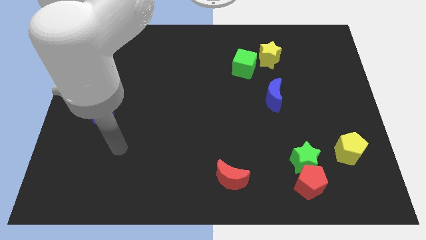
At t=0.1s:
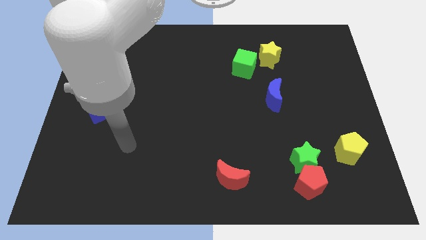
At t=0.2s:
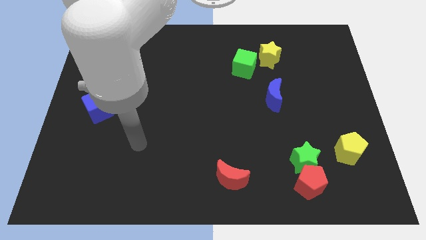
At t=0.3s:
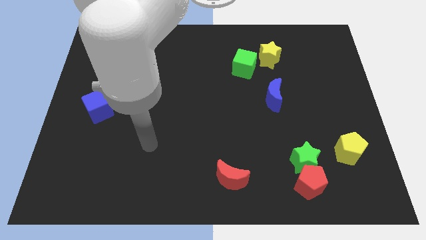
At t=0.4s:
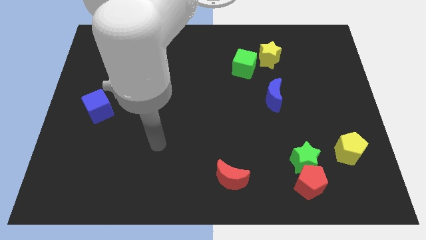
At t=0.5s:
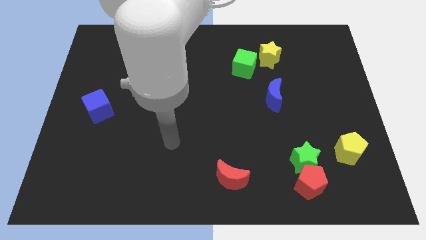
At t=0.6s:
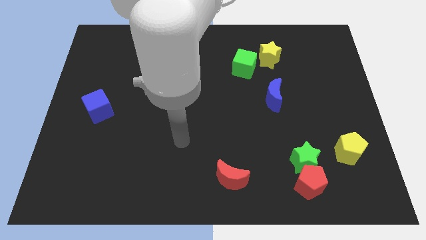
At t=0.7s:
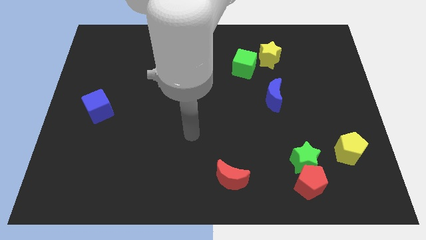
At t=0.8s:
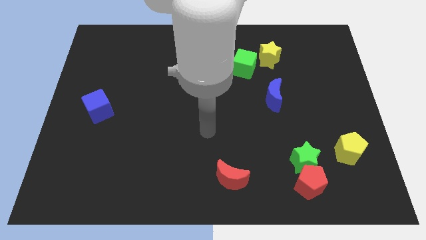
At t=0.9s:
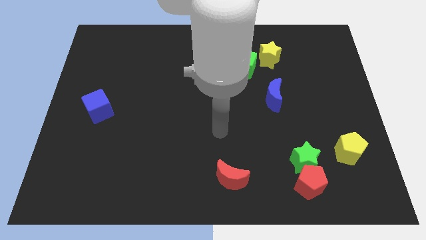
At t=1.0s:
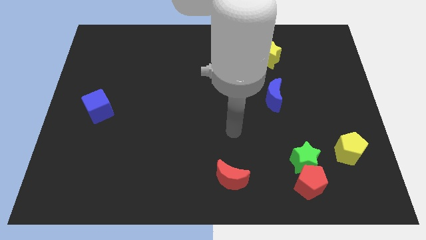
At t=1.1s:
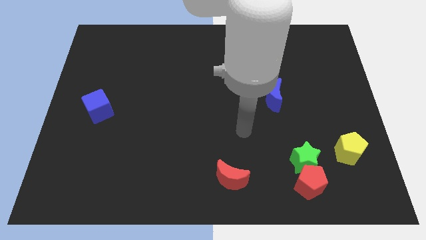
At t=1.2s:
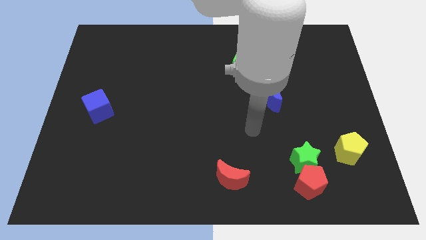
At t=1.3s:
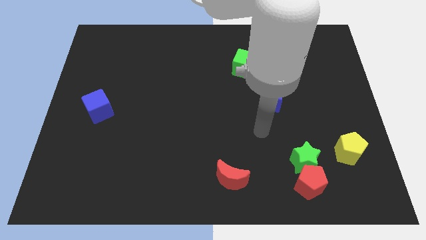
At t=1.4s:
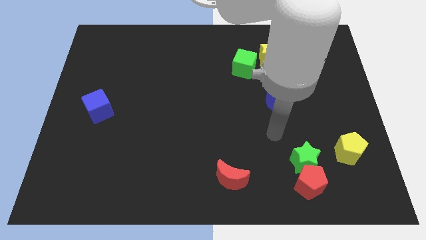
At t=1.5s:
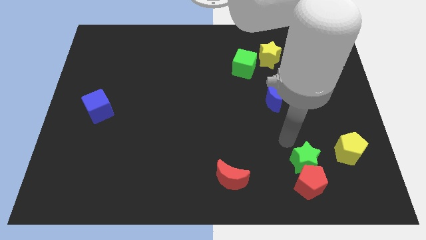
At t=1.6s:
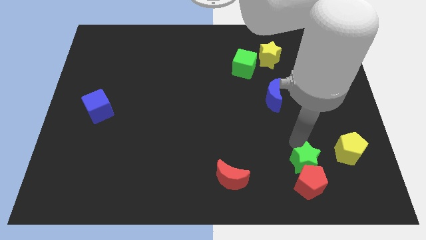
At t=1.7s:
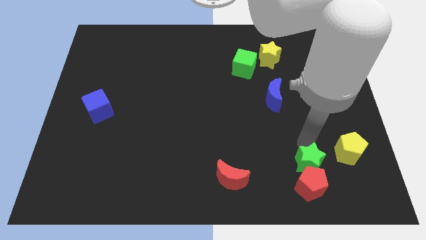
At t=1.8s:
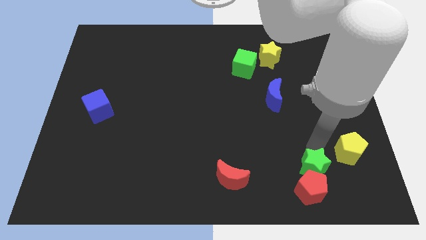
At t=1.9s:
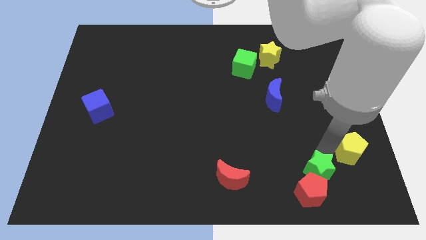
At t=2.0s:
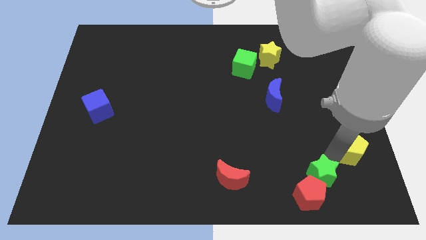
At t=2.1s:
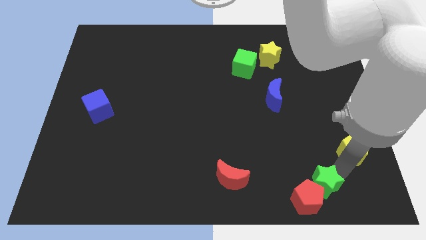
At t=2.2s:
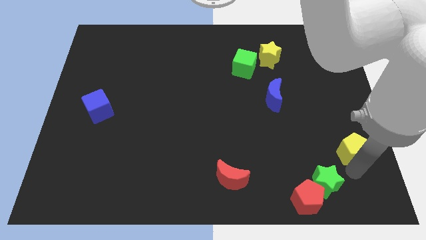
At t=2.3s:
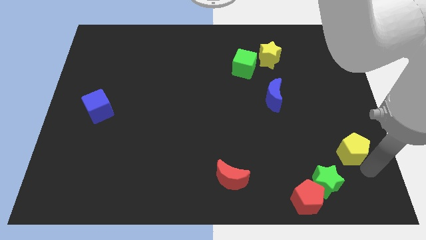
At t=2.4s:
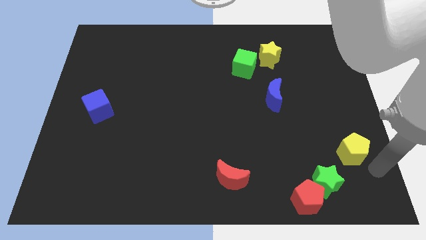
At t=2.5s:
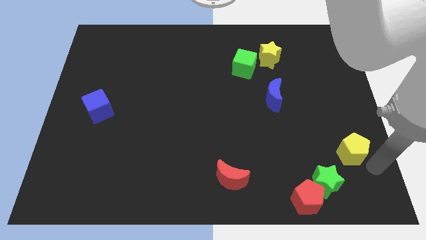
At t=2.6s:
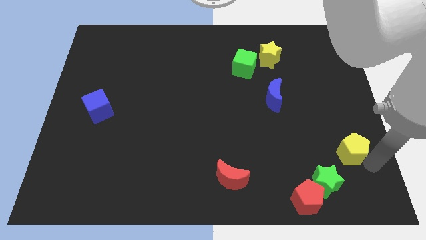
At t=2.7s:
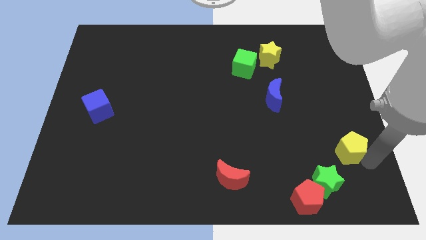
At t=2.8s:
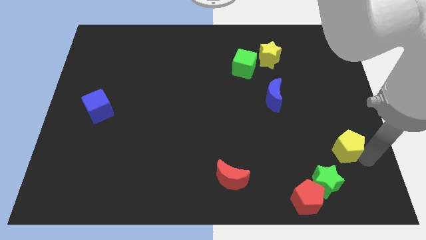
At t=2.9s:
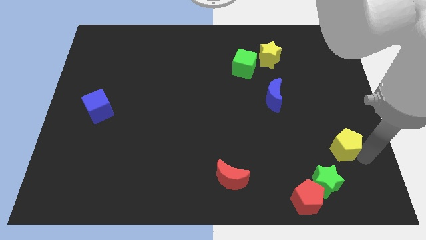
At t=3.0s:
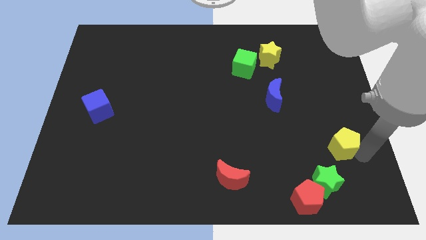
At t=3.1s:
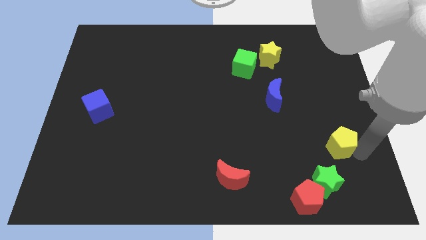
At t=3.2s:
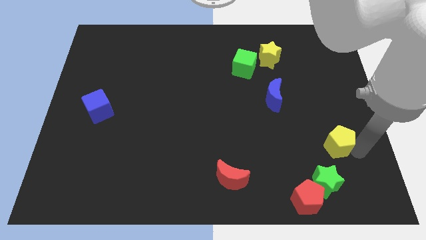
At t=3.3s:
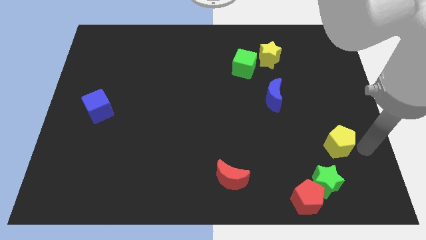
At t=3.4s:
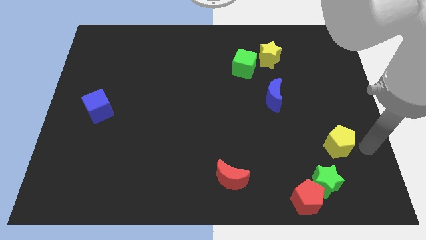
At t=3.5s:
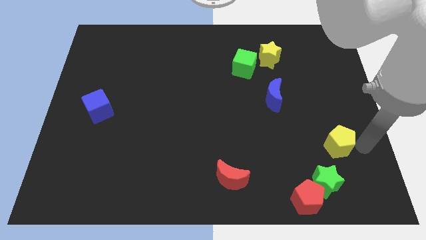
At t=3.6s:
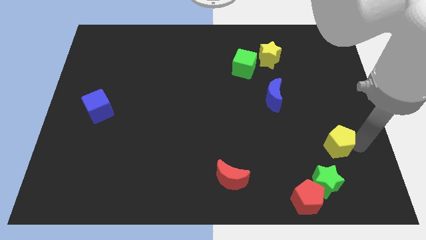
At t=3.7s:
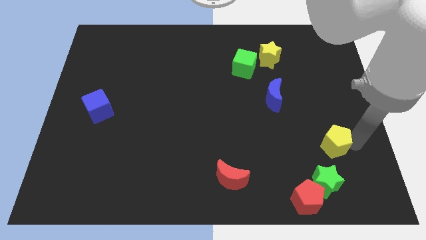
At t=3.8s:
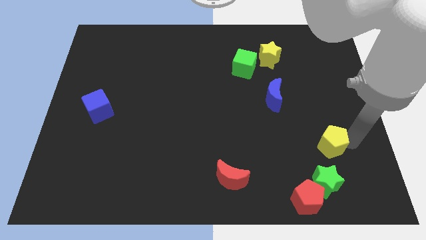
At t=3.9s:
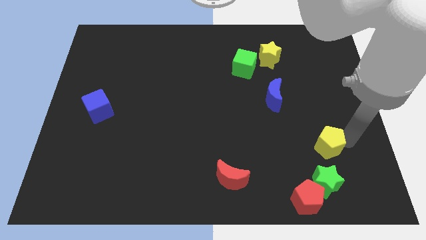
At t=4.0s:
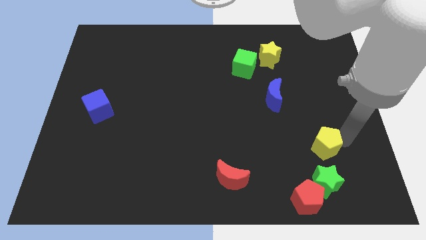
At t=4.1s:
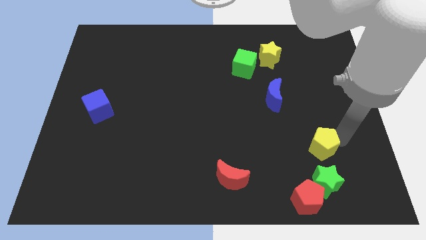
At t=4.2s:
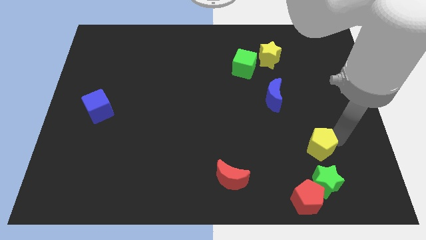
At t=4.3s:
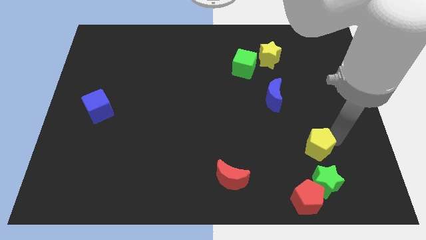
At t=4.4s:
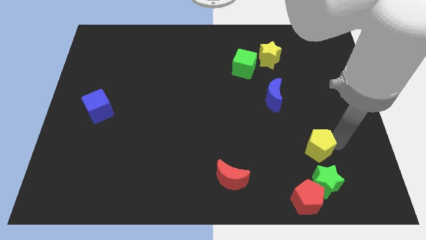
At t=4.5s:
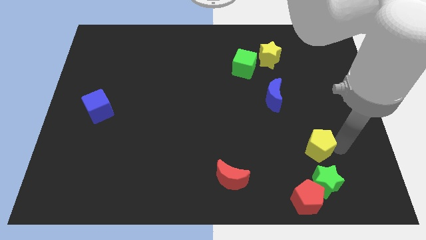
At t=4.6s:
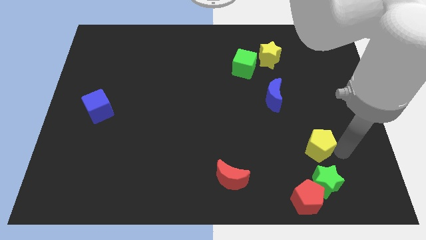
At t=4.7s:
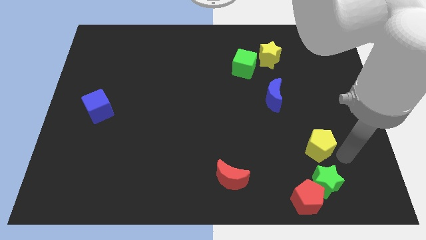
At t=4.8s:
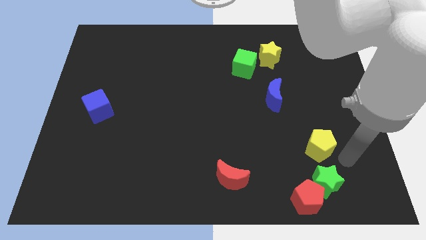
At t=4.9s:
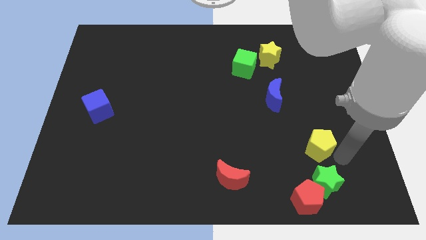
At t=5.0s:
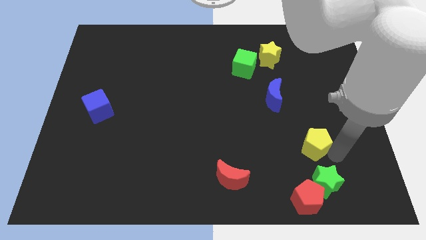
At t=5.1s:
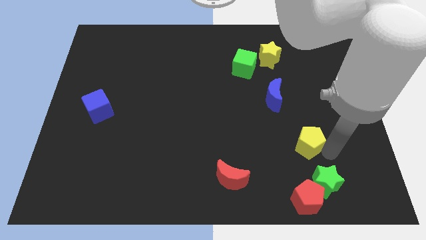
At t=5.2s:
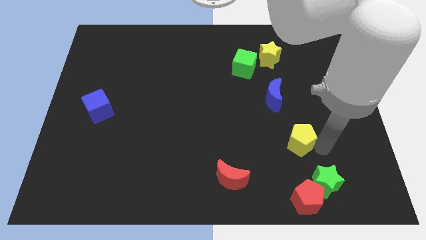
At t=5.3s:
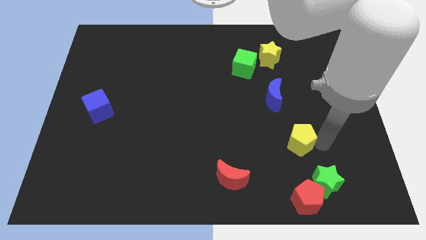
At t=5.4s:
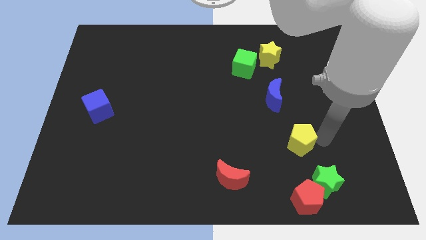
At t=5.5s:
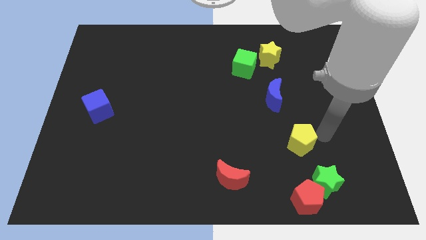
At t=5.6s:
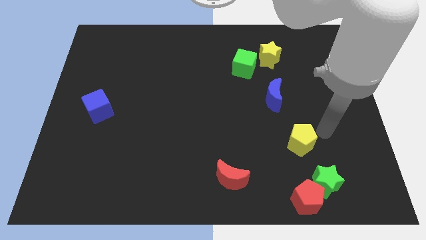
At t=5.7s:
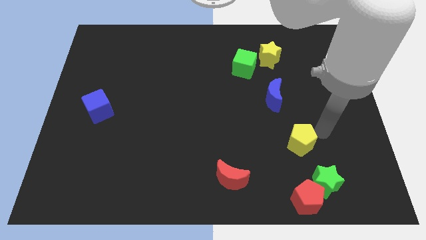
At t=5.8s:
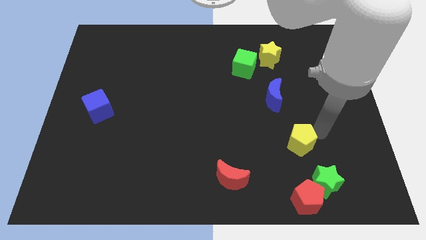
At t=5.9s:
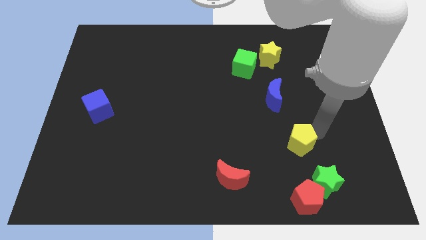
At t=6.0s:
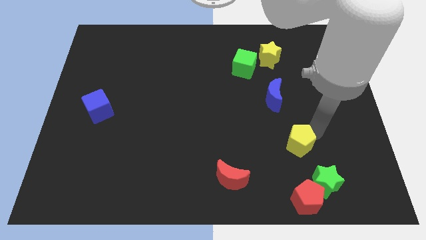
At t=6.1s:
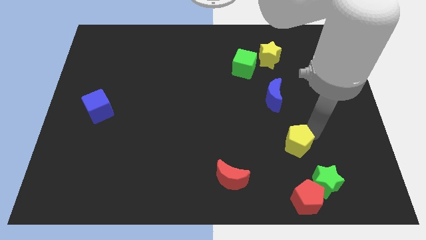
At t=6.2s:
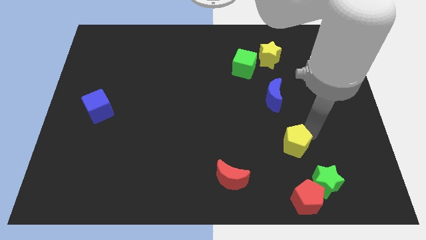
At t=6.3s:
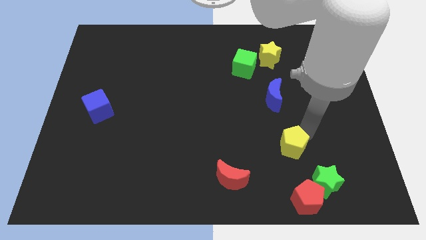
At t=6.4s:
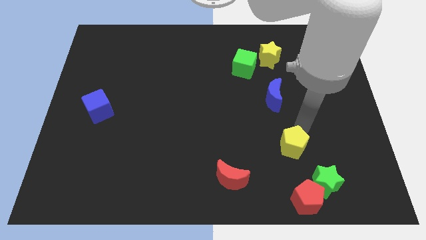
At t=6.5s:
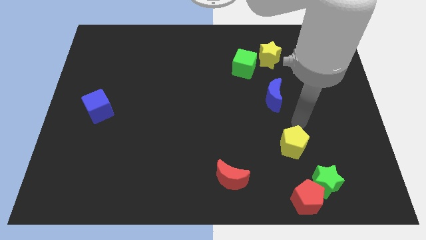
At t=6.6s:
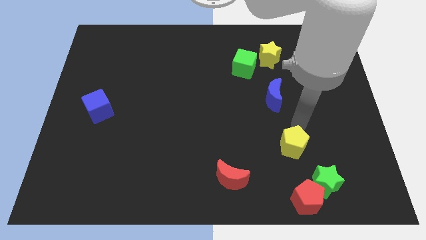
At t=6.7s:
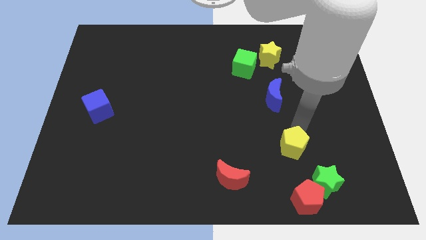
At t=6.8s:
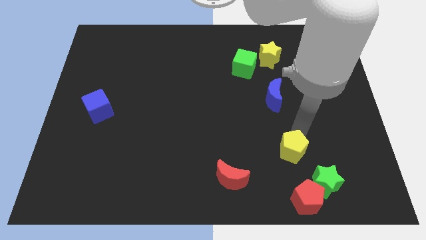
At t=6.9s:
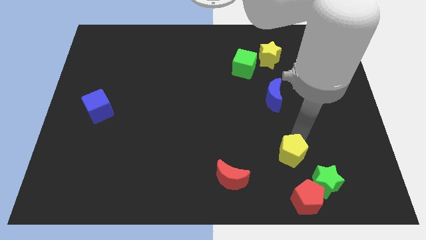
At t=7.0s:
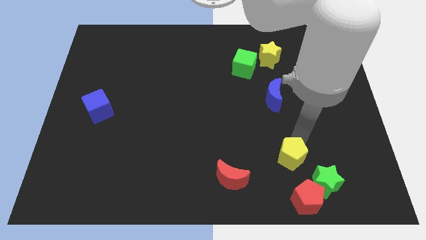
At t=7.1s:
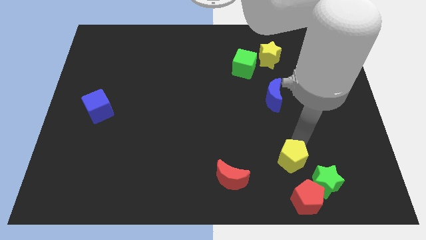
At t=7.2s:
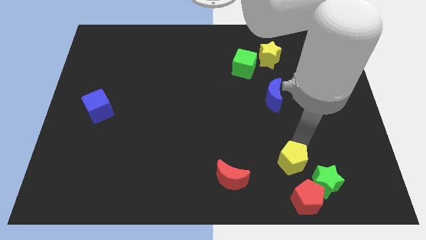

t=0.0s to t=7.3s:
move the yellow pentagon to the right side of the red moon
